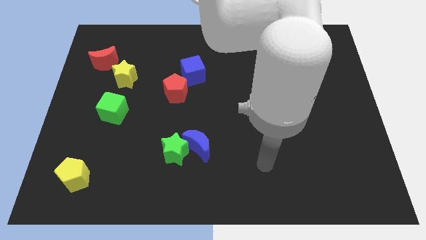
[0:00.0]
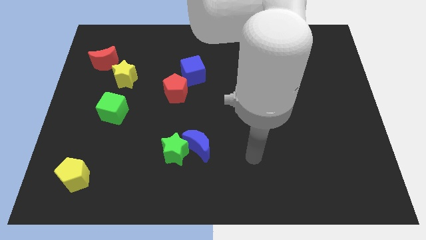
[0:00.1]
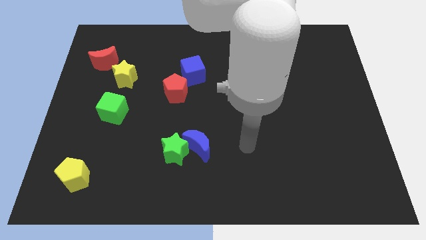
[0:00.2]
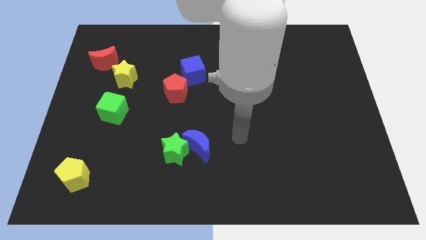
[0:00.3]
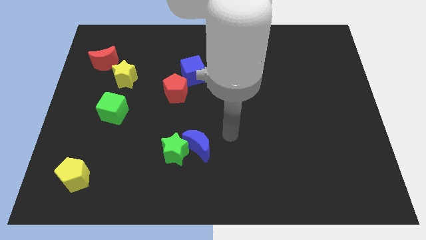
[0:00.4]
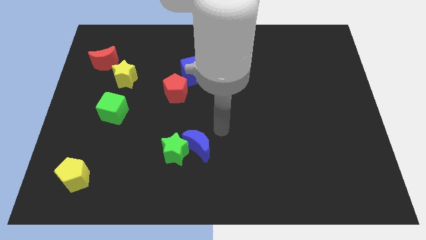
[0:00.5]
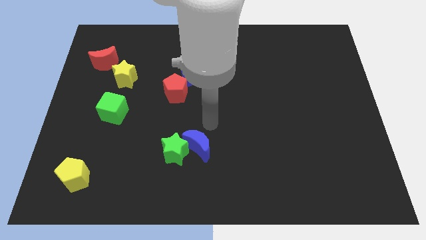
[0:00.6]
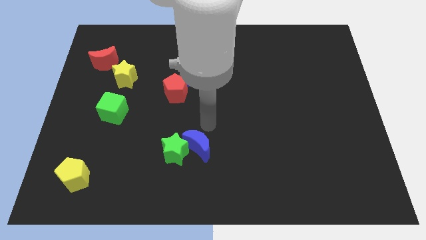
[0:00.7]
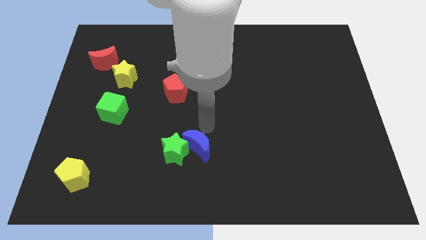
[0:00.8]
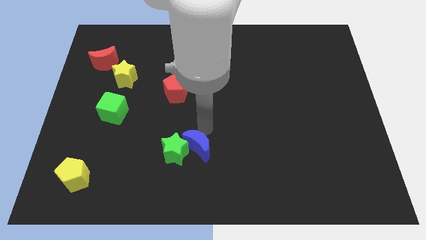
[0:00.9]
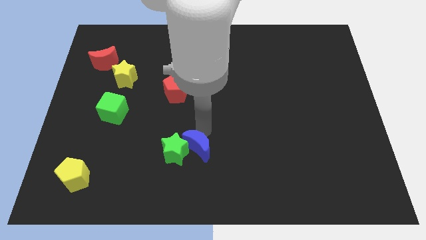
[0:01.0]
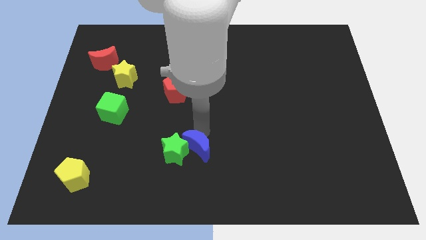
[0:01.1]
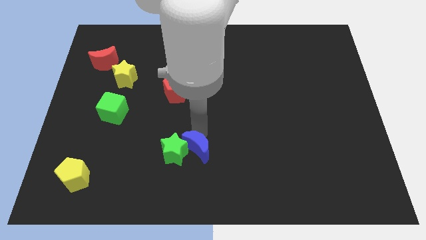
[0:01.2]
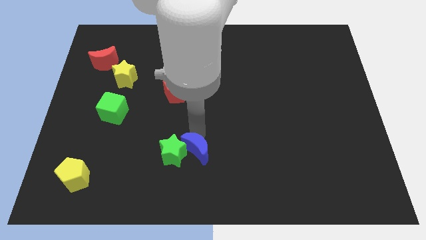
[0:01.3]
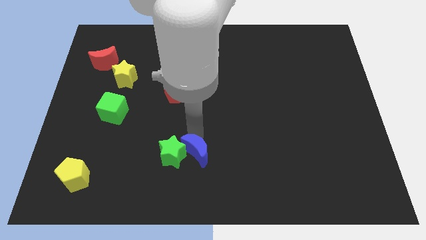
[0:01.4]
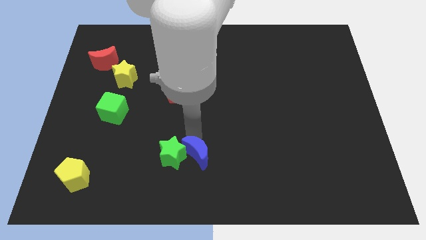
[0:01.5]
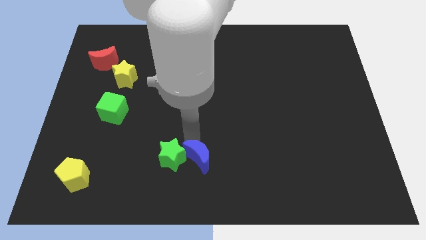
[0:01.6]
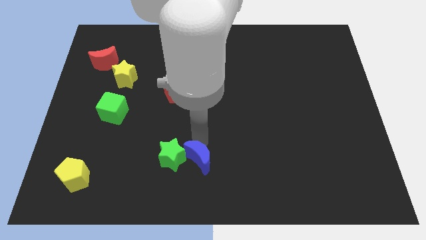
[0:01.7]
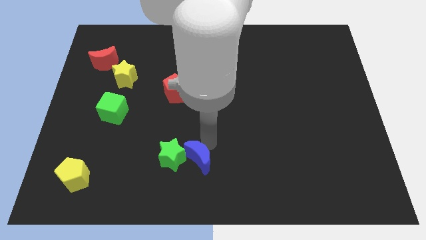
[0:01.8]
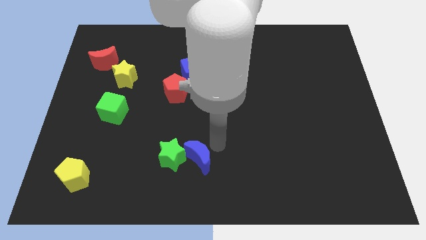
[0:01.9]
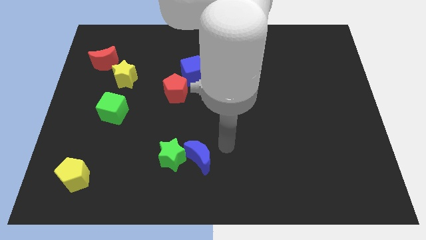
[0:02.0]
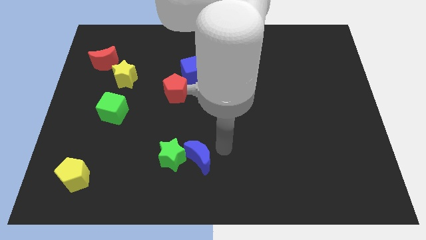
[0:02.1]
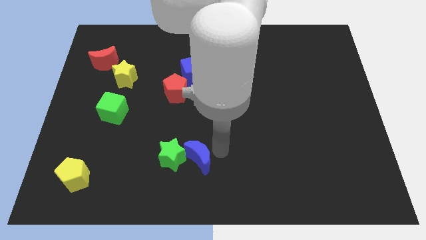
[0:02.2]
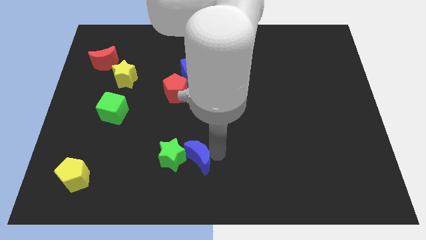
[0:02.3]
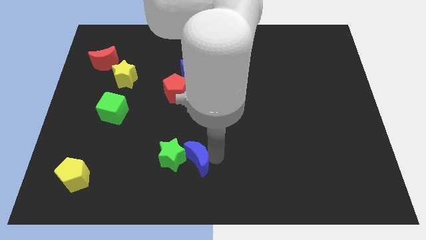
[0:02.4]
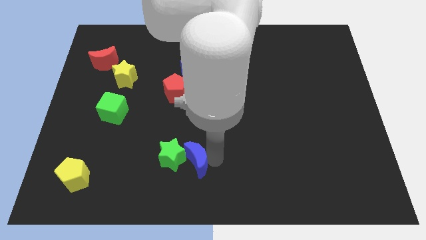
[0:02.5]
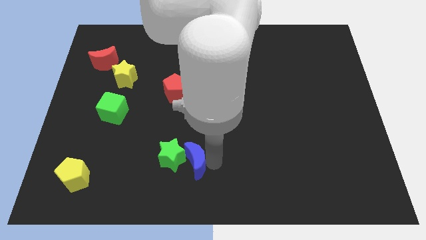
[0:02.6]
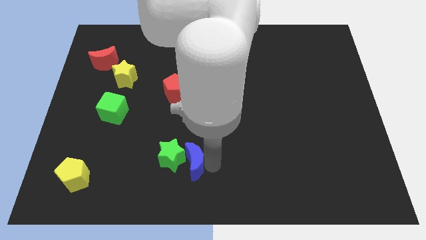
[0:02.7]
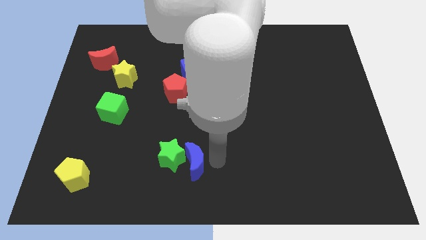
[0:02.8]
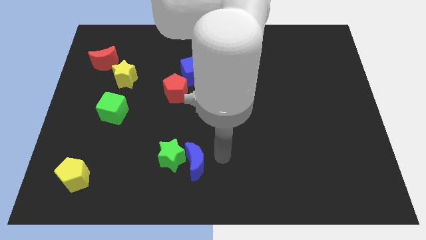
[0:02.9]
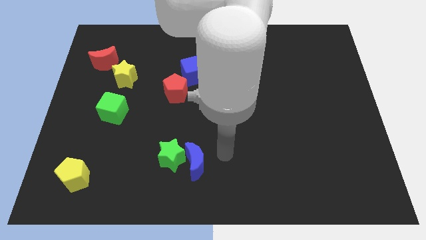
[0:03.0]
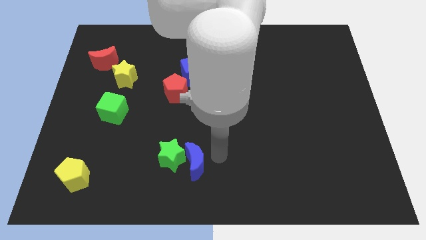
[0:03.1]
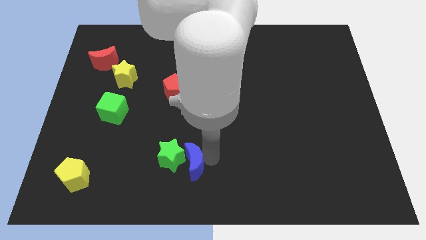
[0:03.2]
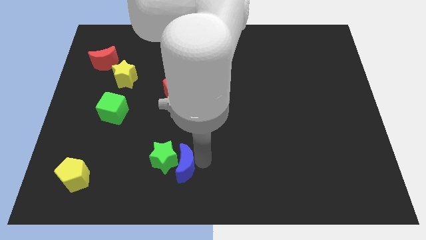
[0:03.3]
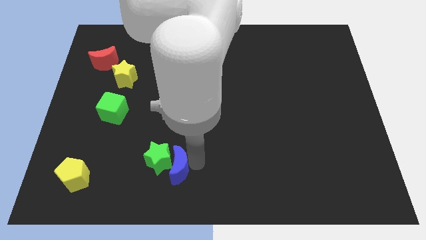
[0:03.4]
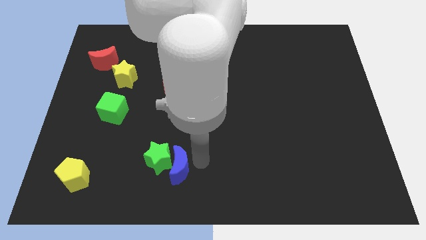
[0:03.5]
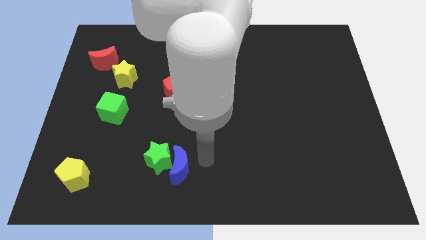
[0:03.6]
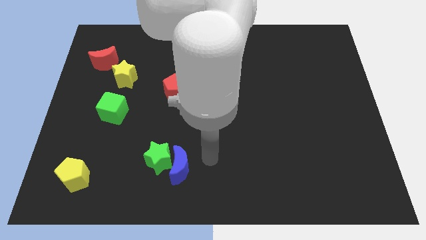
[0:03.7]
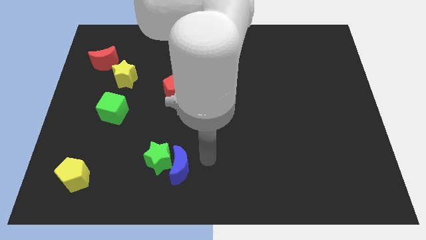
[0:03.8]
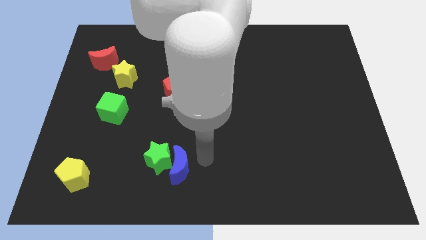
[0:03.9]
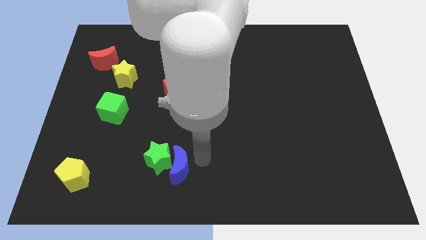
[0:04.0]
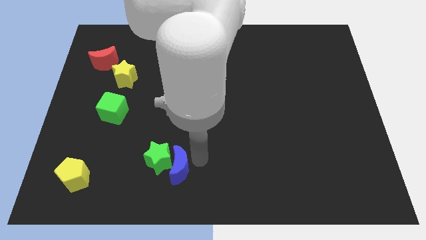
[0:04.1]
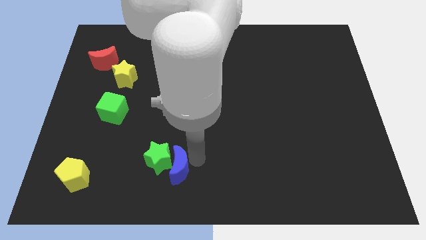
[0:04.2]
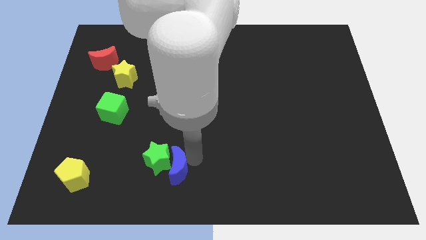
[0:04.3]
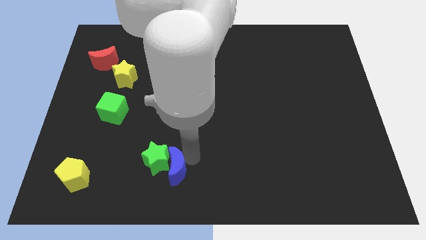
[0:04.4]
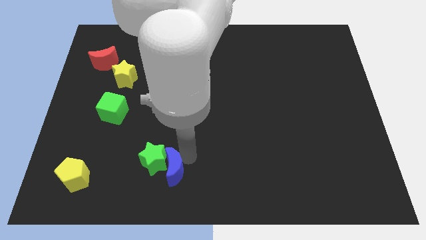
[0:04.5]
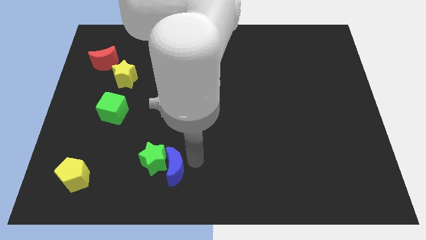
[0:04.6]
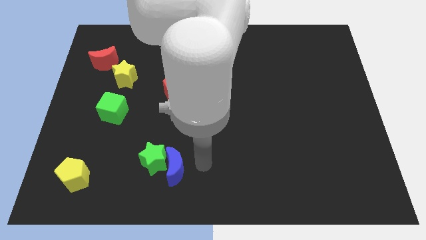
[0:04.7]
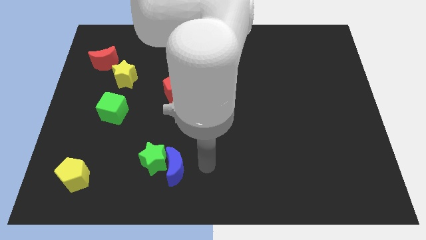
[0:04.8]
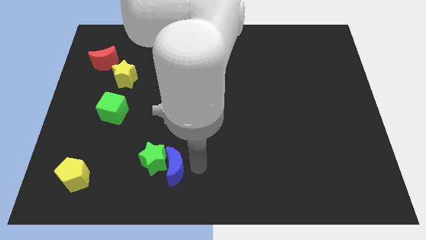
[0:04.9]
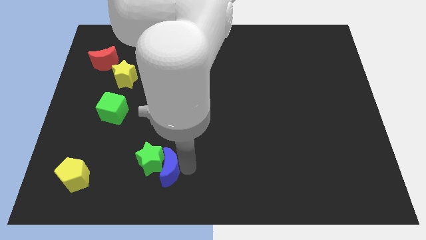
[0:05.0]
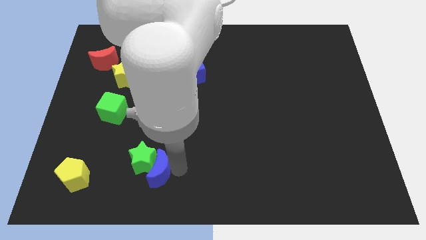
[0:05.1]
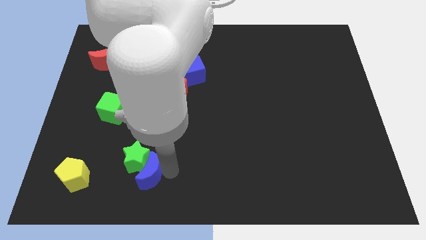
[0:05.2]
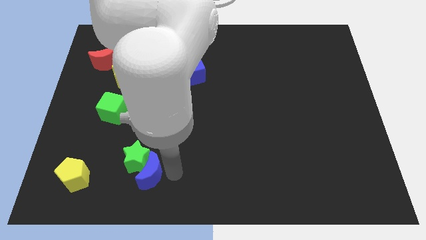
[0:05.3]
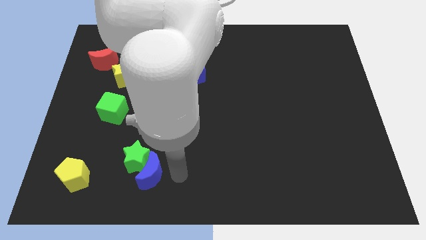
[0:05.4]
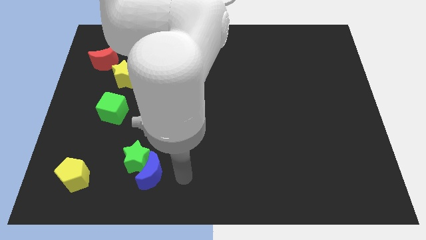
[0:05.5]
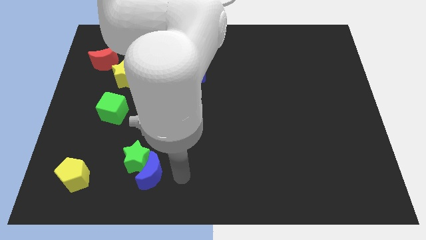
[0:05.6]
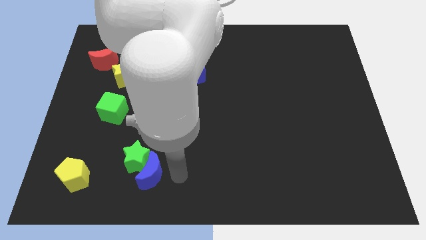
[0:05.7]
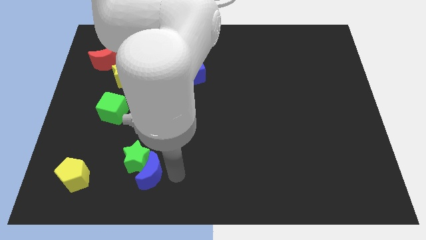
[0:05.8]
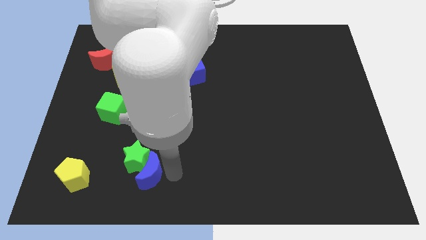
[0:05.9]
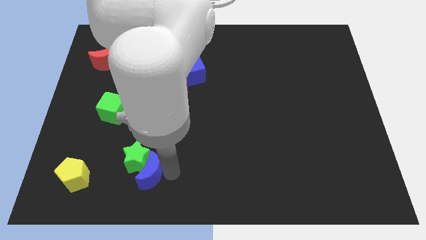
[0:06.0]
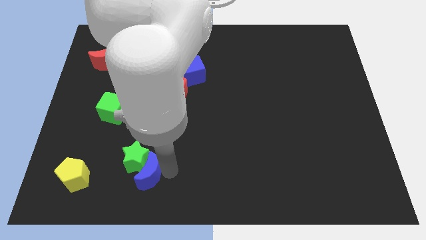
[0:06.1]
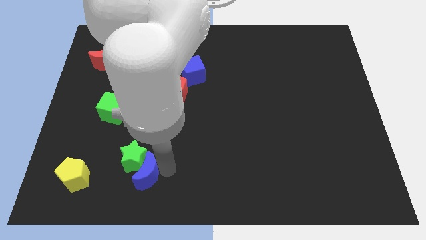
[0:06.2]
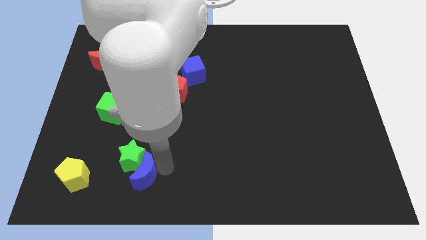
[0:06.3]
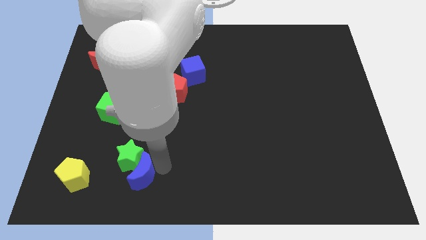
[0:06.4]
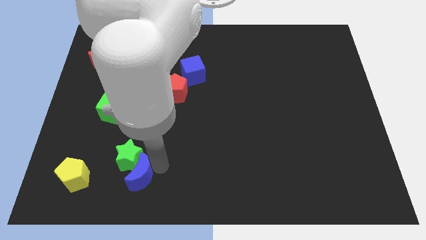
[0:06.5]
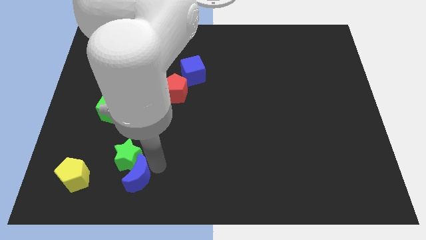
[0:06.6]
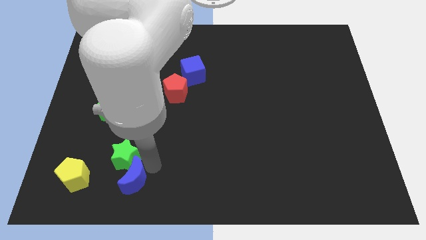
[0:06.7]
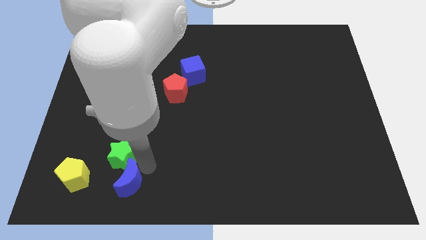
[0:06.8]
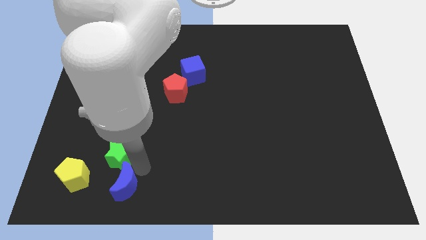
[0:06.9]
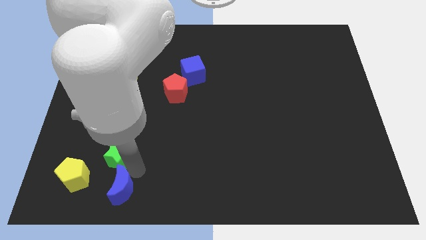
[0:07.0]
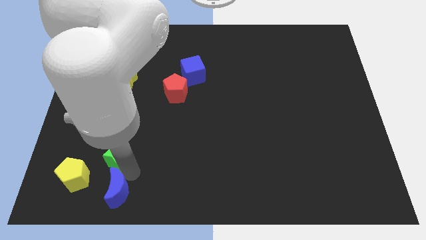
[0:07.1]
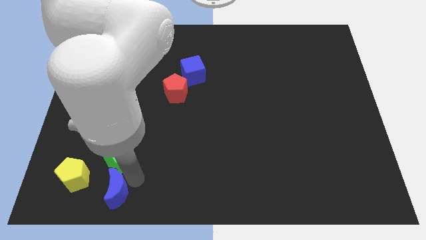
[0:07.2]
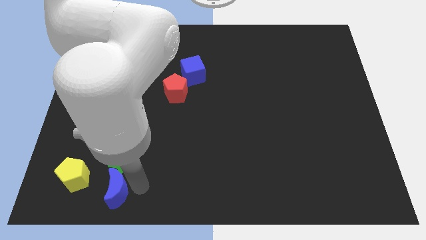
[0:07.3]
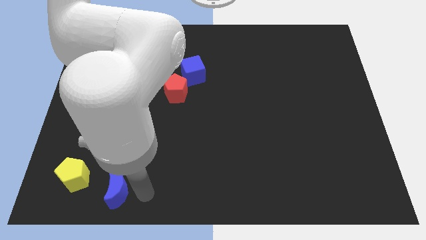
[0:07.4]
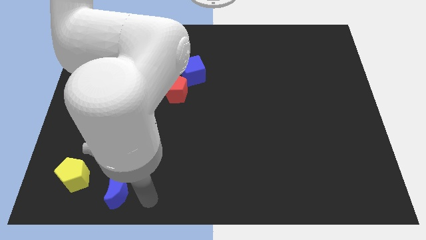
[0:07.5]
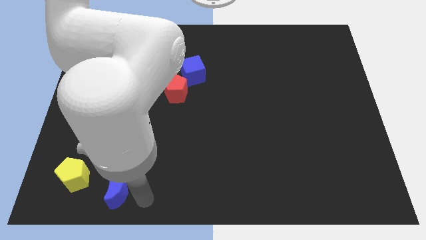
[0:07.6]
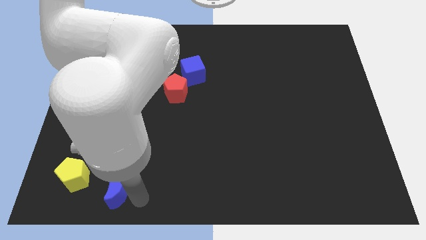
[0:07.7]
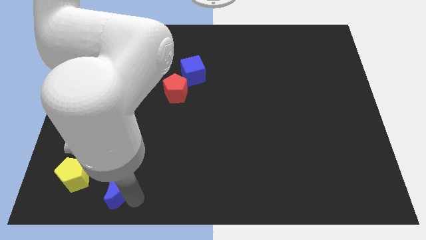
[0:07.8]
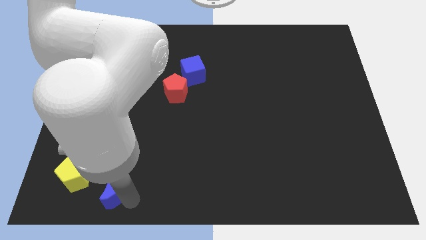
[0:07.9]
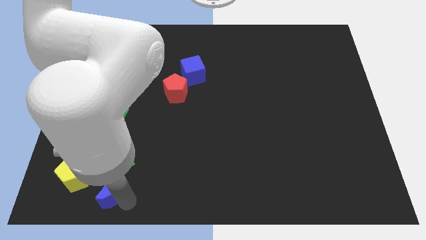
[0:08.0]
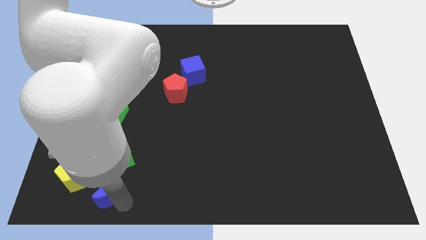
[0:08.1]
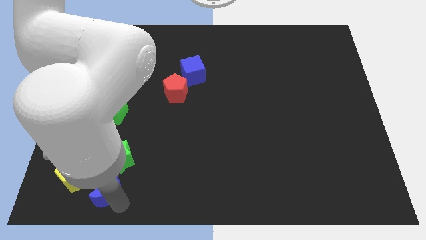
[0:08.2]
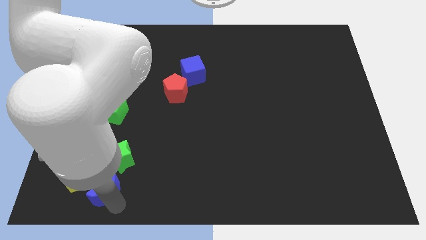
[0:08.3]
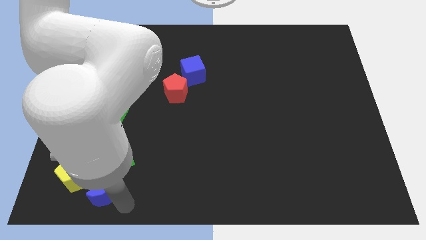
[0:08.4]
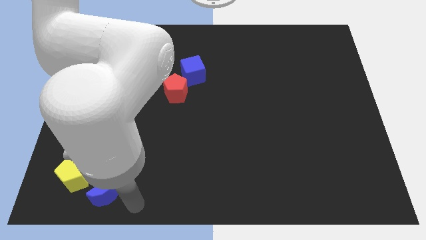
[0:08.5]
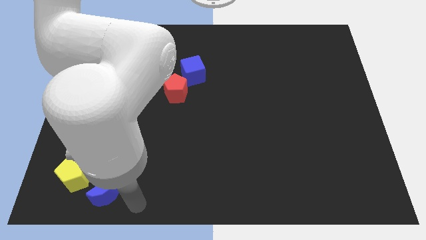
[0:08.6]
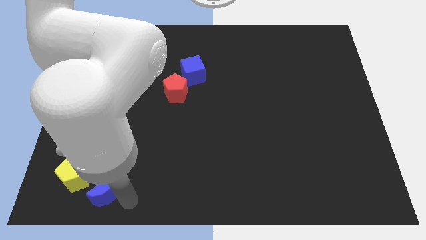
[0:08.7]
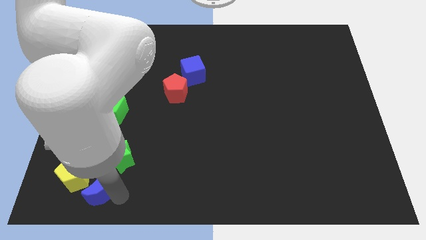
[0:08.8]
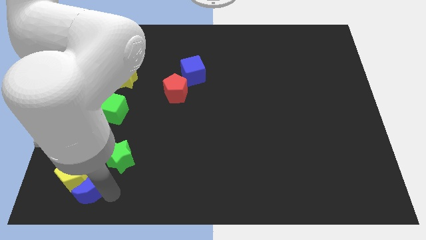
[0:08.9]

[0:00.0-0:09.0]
push the blue moon to the yellow pentagon
